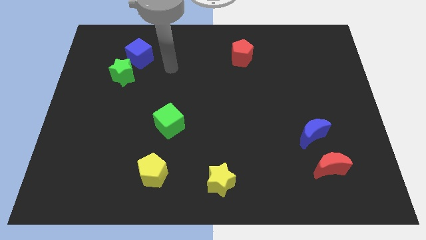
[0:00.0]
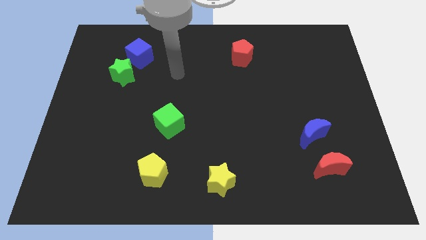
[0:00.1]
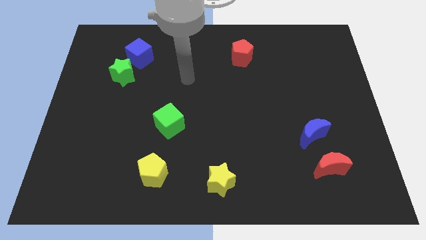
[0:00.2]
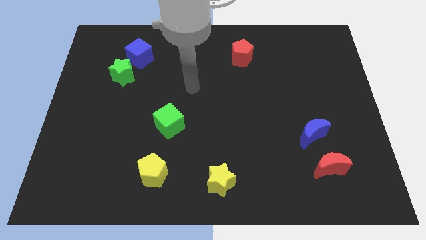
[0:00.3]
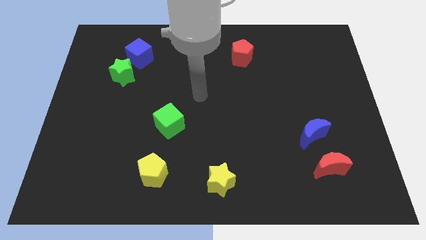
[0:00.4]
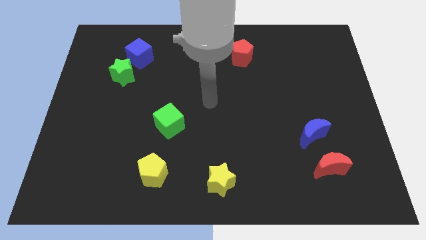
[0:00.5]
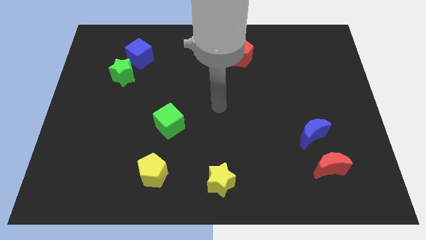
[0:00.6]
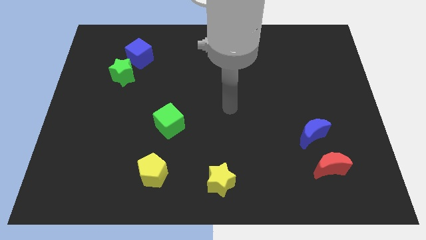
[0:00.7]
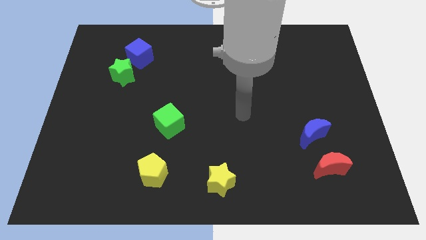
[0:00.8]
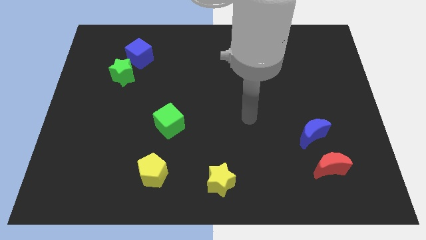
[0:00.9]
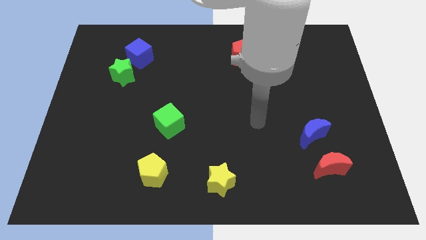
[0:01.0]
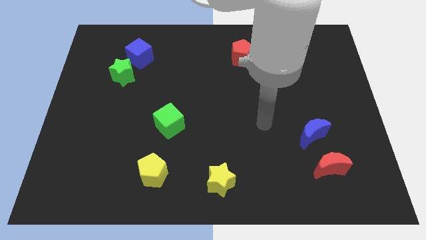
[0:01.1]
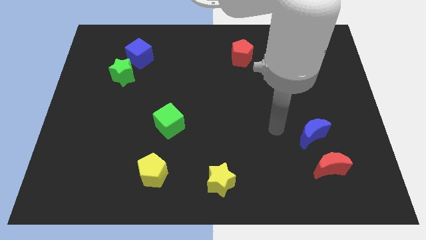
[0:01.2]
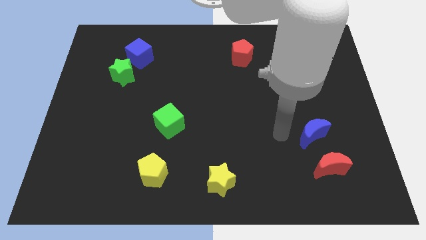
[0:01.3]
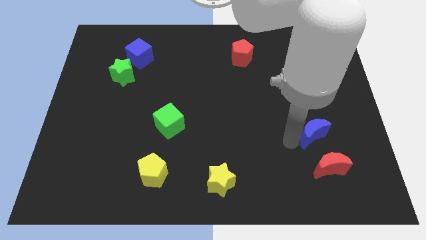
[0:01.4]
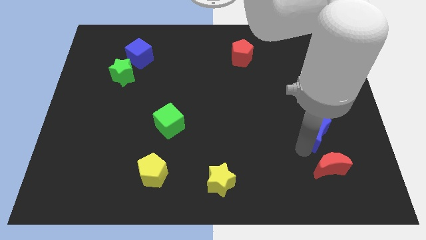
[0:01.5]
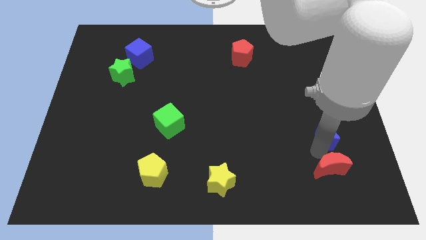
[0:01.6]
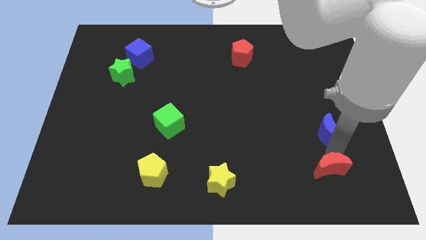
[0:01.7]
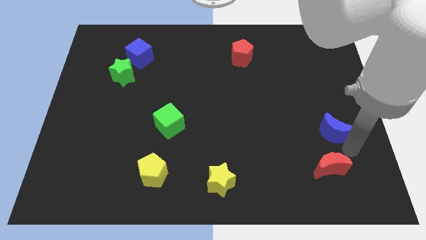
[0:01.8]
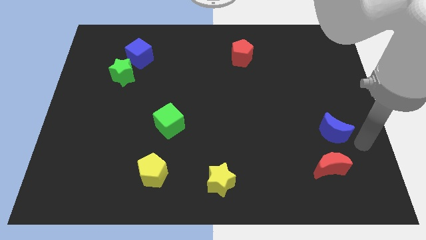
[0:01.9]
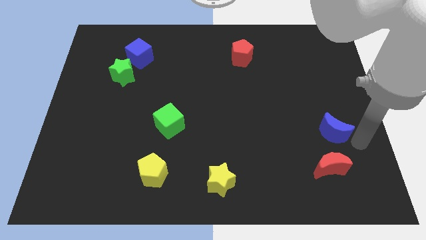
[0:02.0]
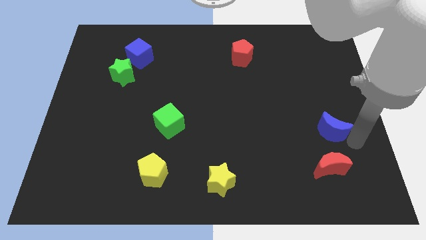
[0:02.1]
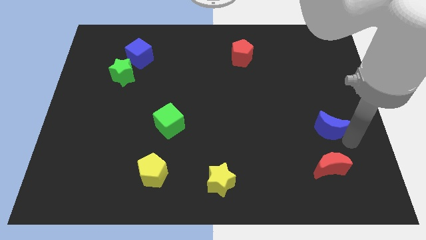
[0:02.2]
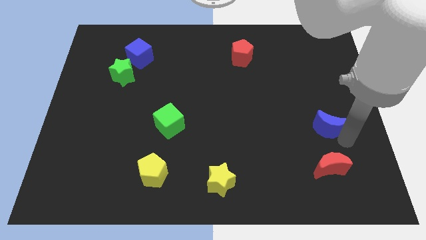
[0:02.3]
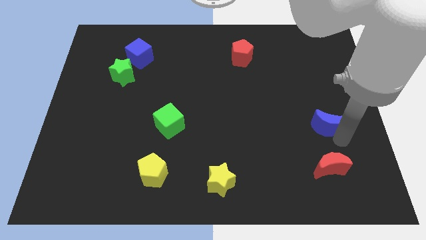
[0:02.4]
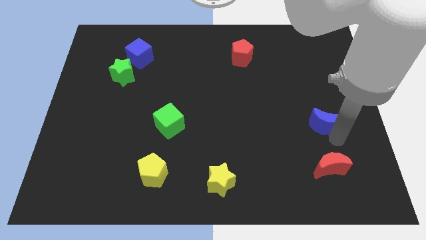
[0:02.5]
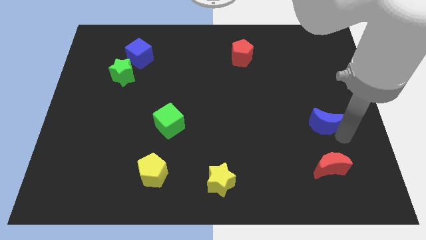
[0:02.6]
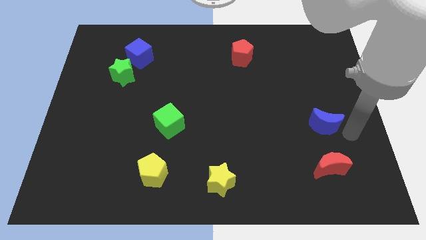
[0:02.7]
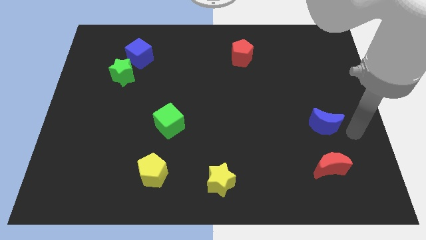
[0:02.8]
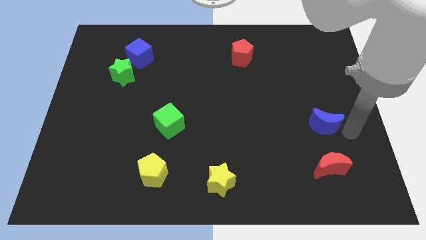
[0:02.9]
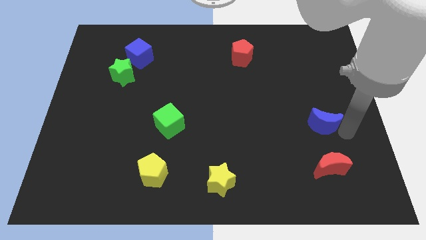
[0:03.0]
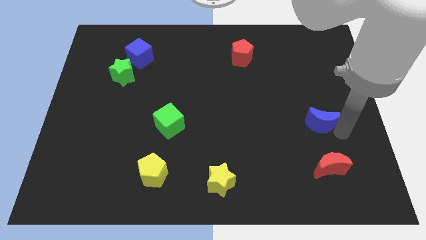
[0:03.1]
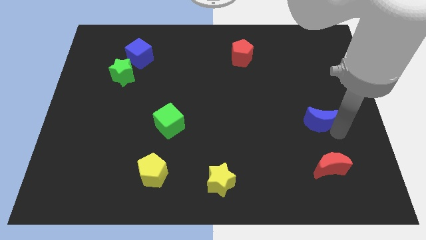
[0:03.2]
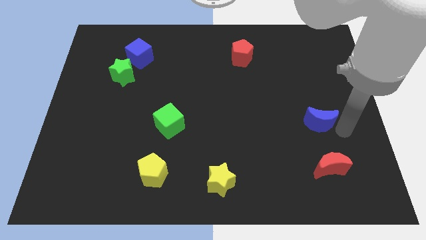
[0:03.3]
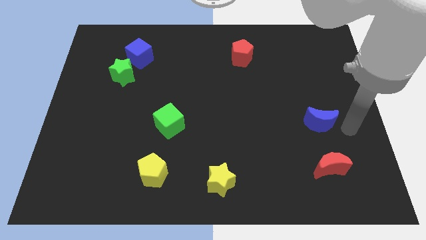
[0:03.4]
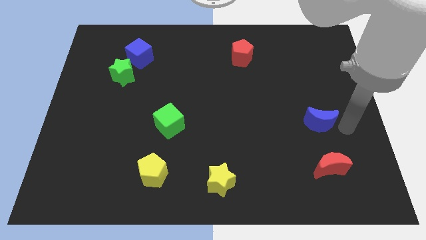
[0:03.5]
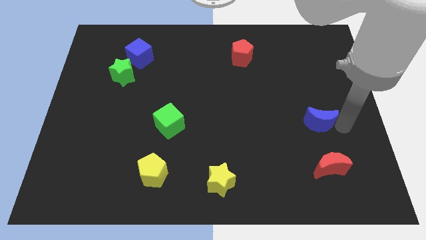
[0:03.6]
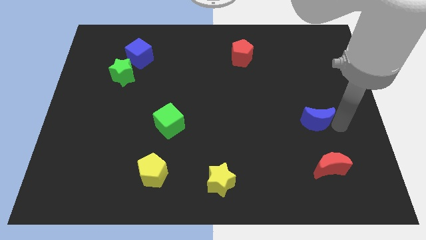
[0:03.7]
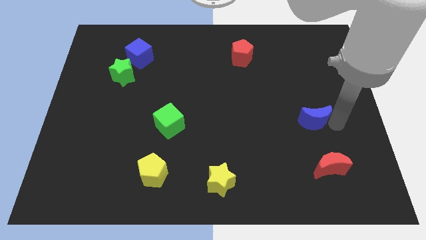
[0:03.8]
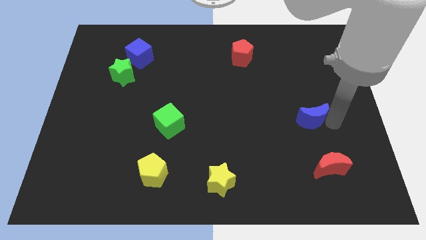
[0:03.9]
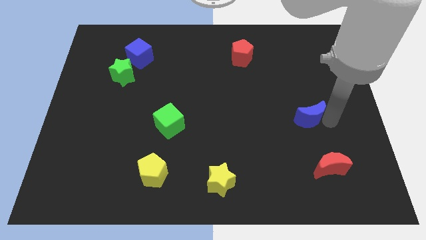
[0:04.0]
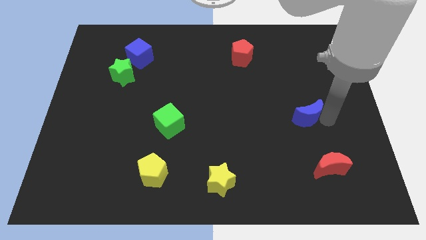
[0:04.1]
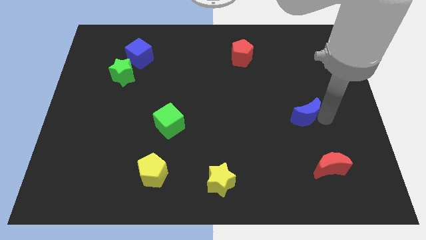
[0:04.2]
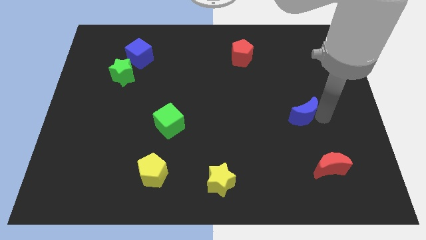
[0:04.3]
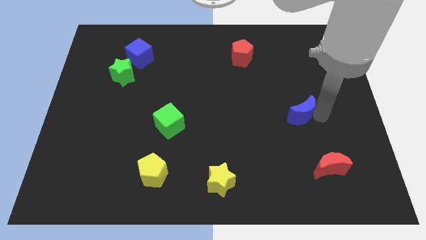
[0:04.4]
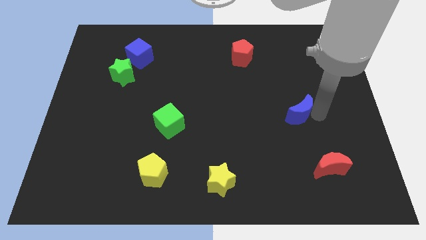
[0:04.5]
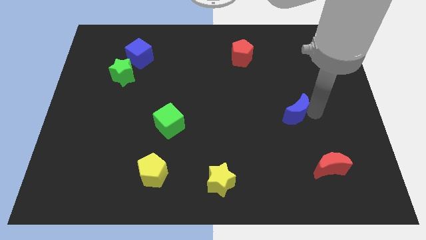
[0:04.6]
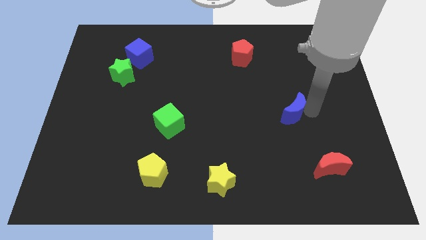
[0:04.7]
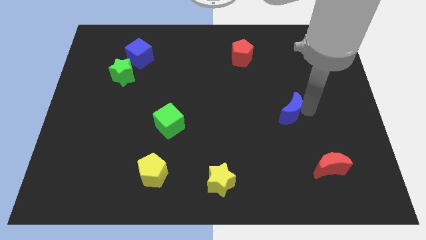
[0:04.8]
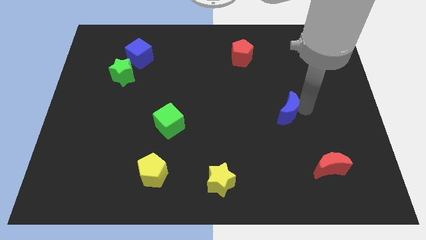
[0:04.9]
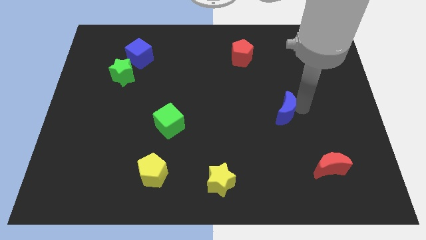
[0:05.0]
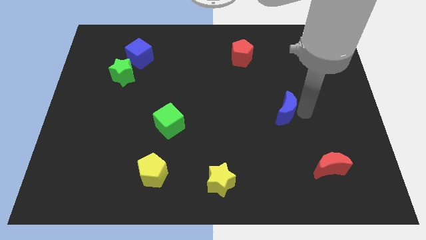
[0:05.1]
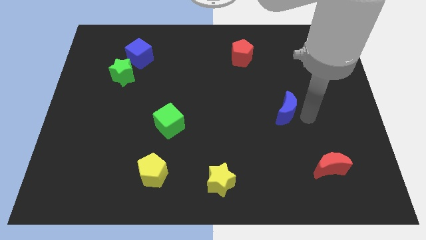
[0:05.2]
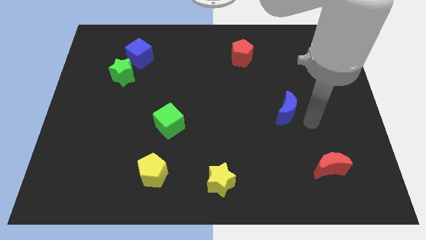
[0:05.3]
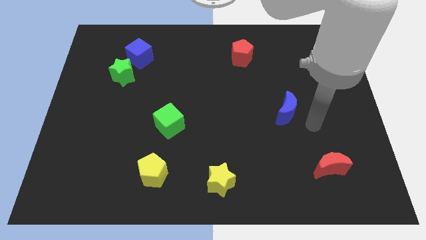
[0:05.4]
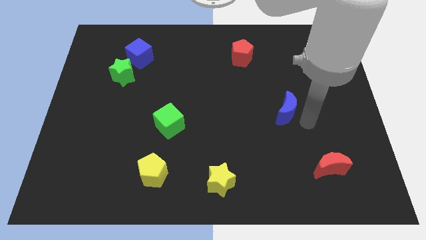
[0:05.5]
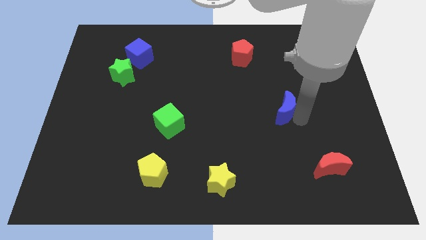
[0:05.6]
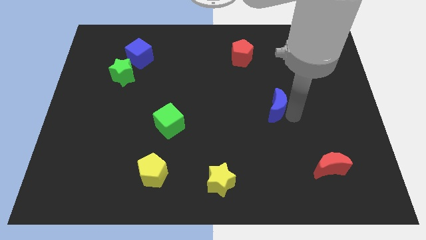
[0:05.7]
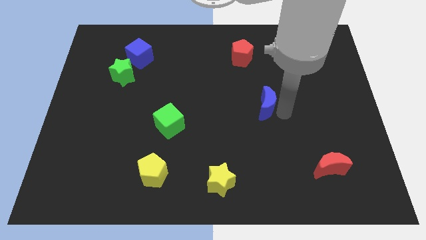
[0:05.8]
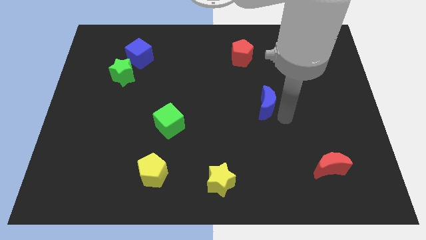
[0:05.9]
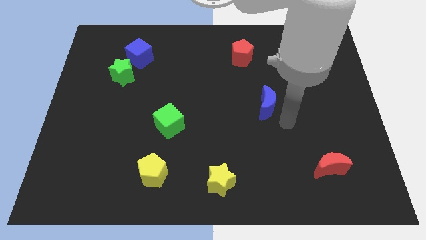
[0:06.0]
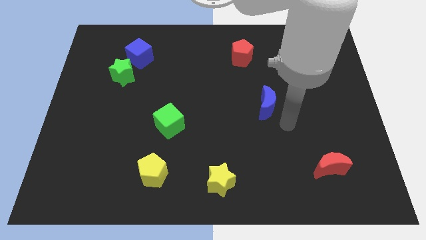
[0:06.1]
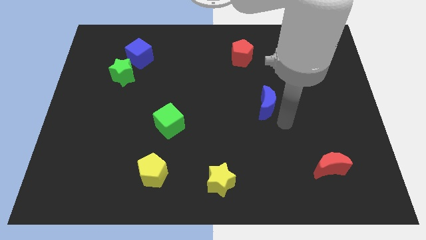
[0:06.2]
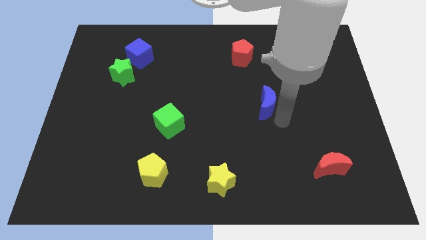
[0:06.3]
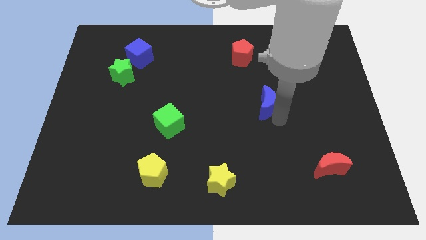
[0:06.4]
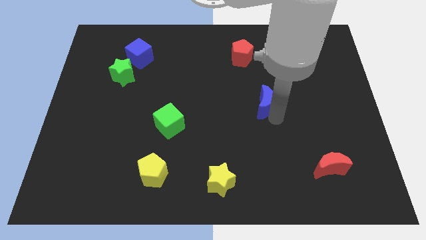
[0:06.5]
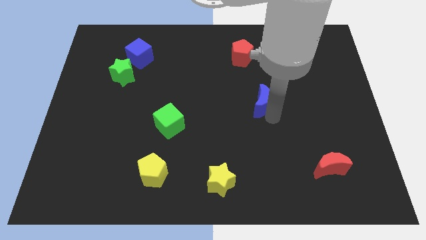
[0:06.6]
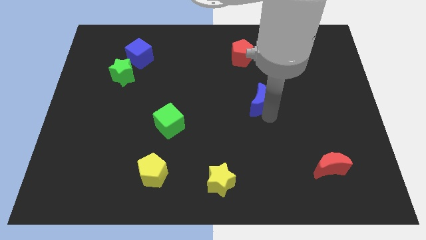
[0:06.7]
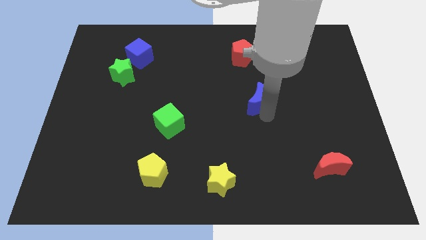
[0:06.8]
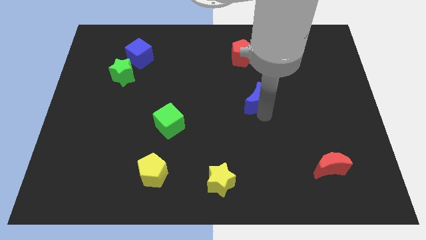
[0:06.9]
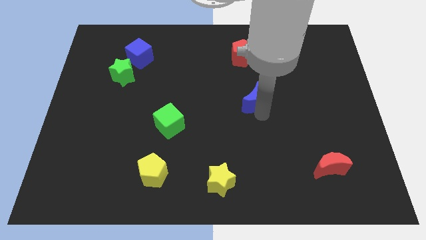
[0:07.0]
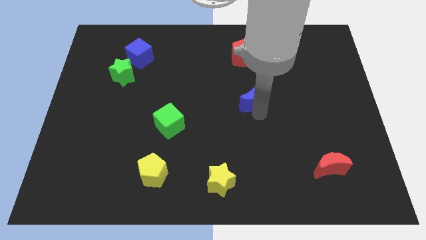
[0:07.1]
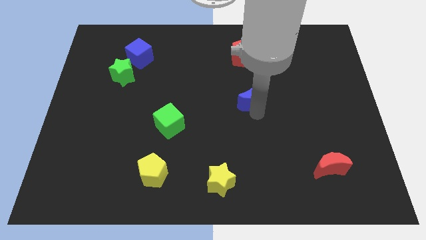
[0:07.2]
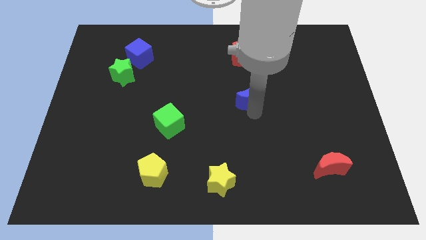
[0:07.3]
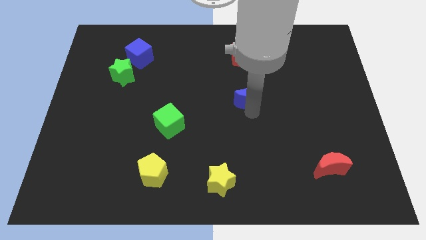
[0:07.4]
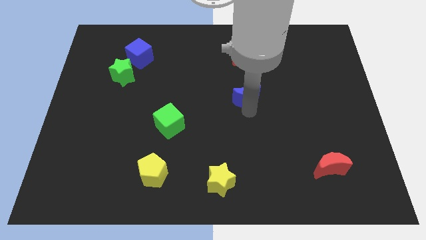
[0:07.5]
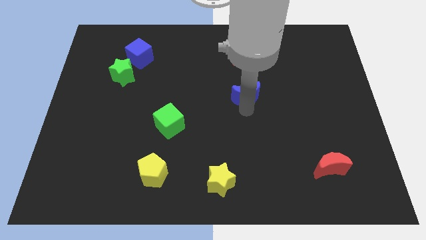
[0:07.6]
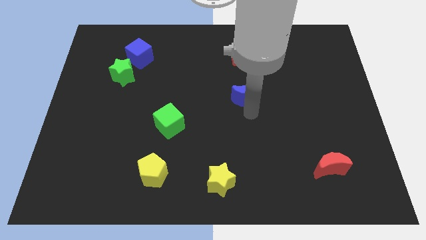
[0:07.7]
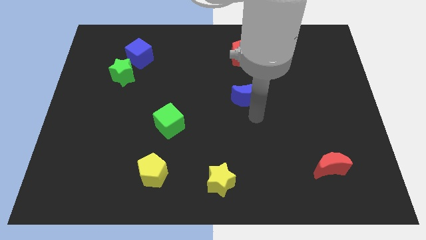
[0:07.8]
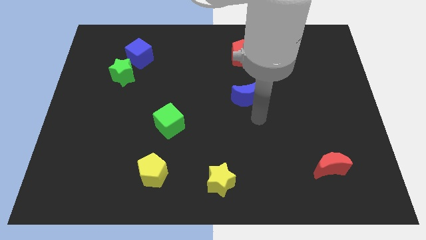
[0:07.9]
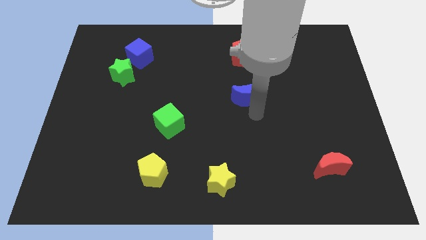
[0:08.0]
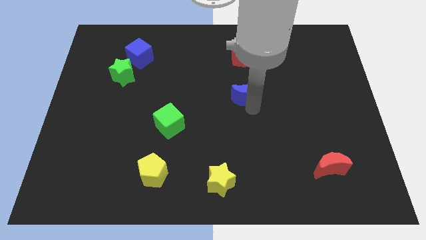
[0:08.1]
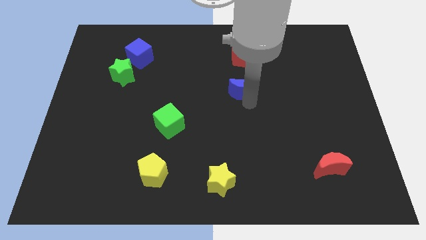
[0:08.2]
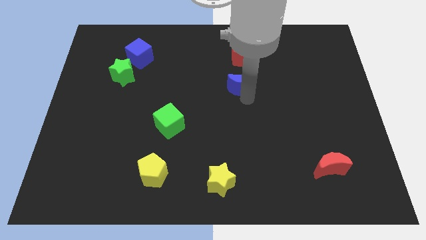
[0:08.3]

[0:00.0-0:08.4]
slide the blue moon upwards and left
